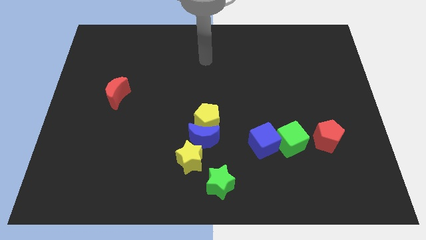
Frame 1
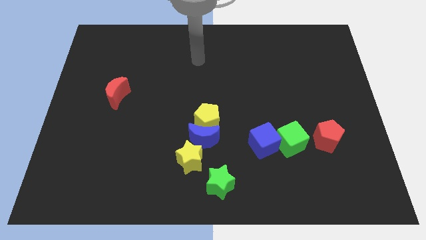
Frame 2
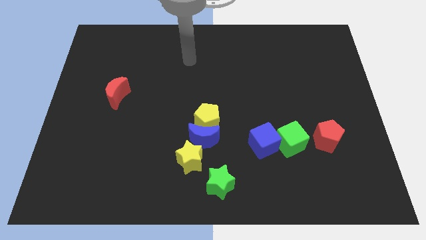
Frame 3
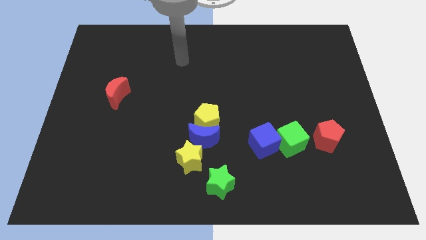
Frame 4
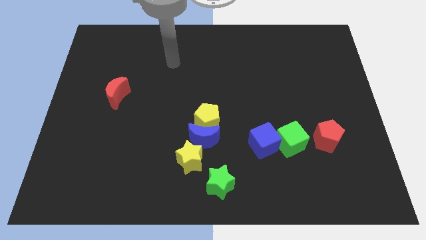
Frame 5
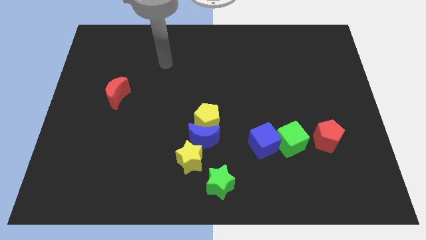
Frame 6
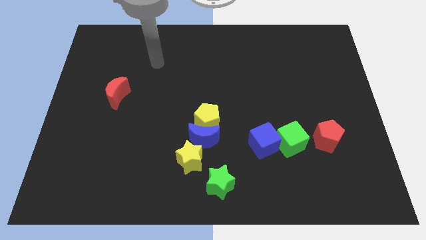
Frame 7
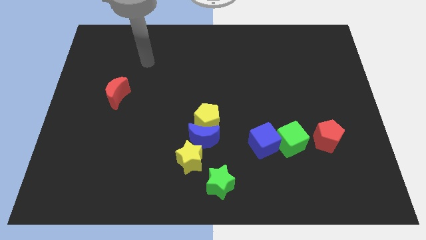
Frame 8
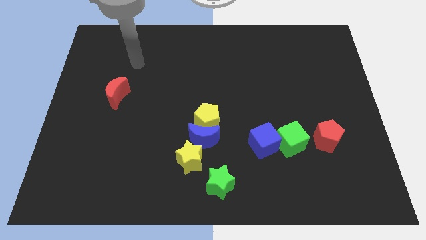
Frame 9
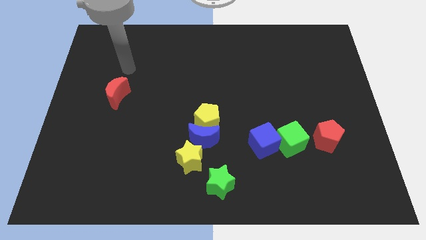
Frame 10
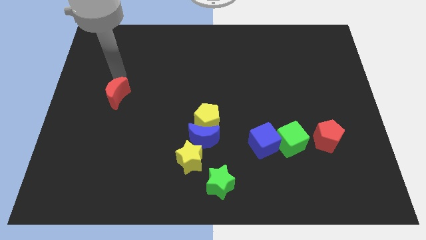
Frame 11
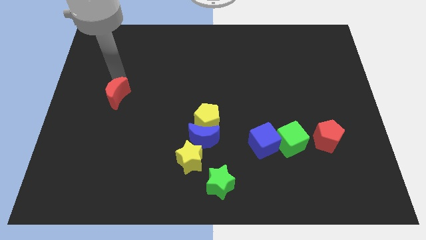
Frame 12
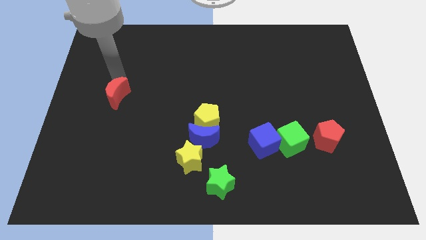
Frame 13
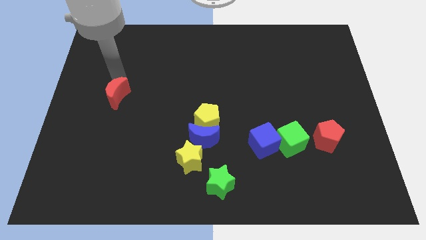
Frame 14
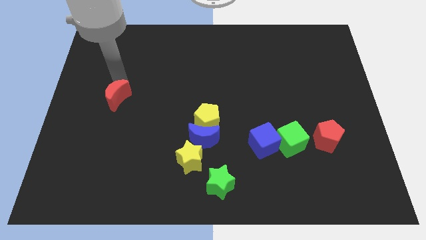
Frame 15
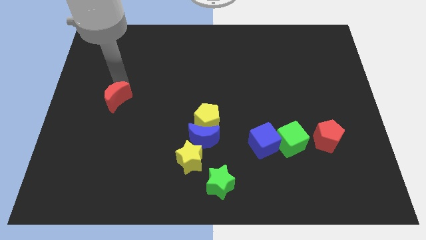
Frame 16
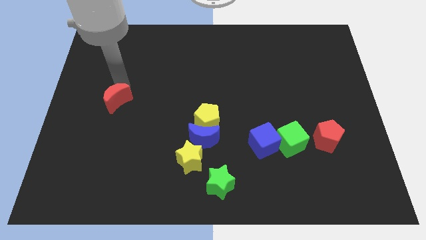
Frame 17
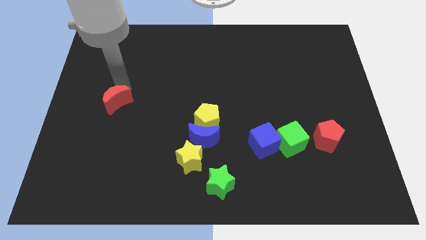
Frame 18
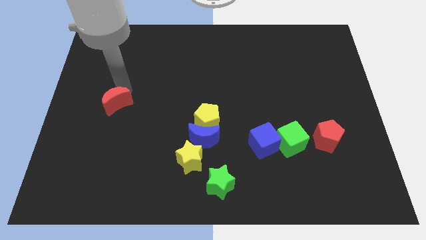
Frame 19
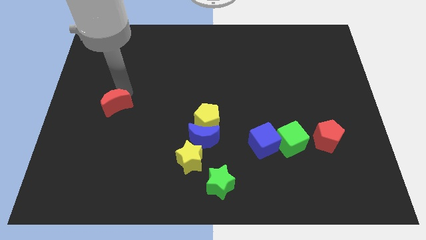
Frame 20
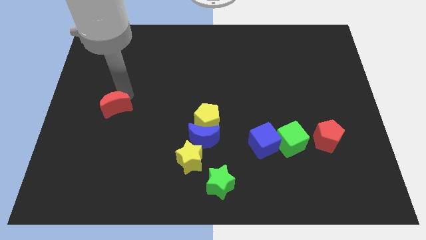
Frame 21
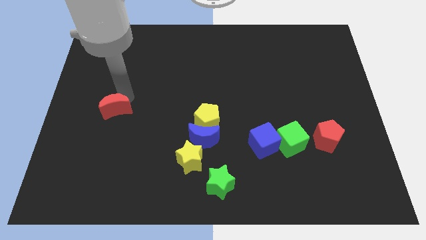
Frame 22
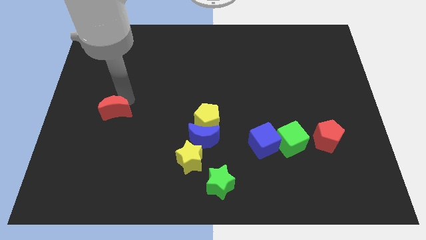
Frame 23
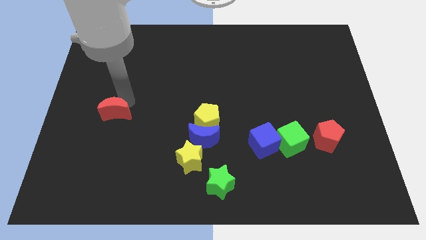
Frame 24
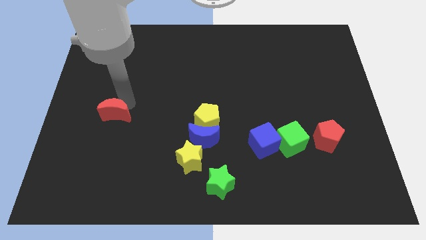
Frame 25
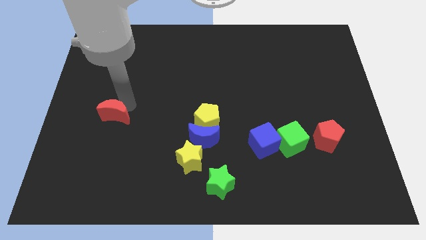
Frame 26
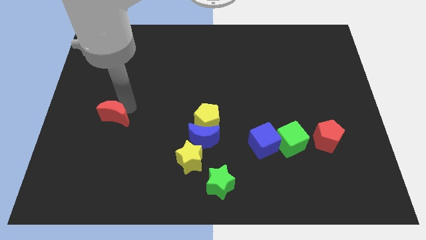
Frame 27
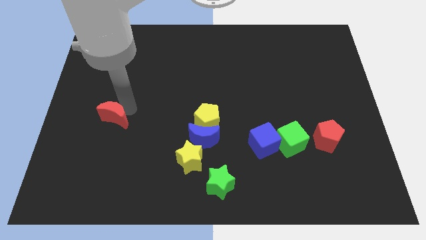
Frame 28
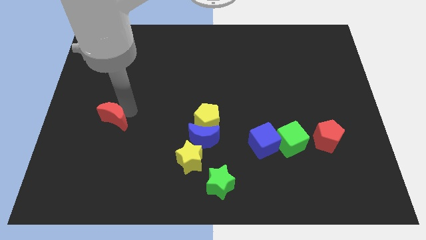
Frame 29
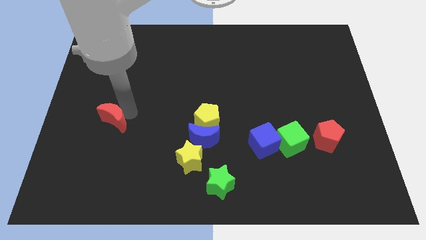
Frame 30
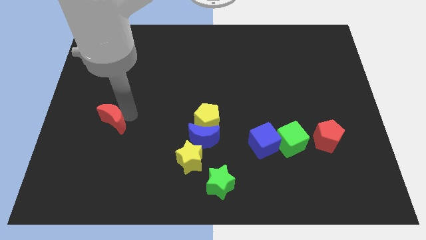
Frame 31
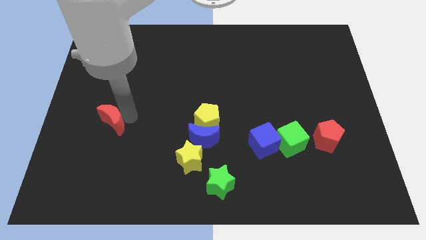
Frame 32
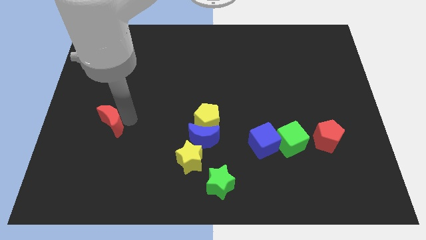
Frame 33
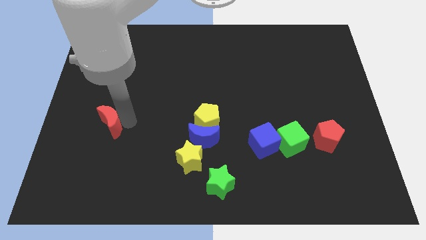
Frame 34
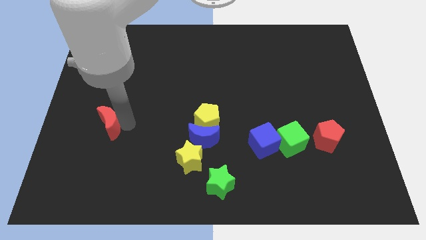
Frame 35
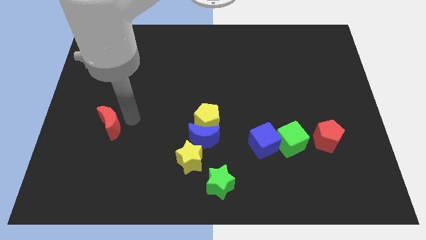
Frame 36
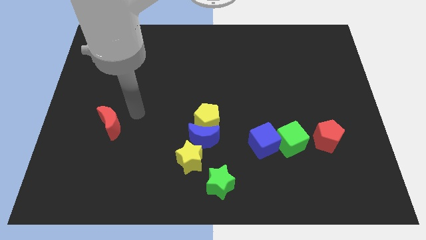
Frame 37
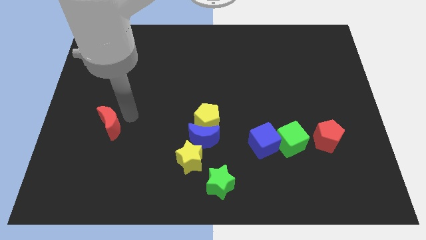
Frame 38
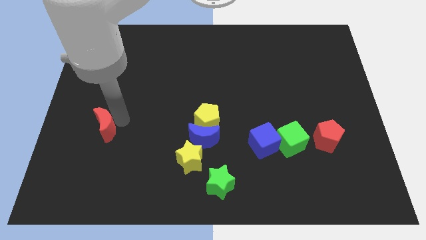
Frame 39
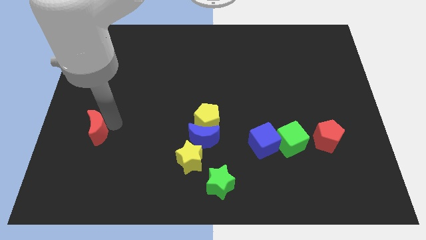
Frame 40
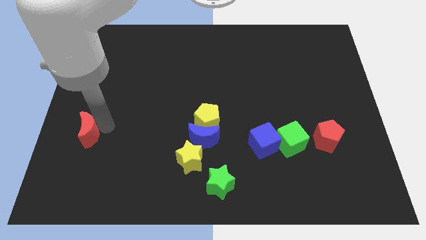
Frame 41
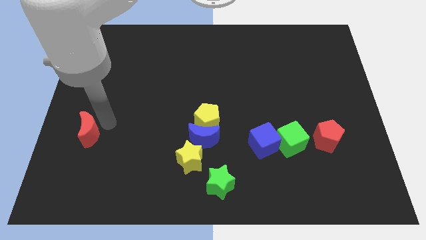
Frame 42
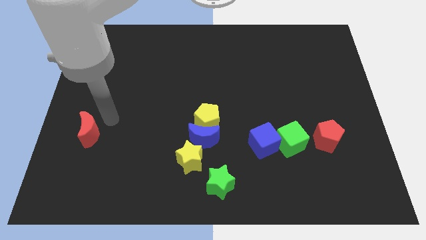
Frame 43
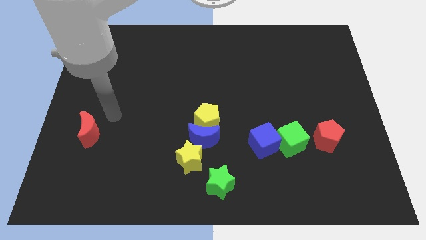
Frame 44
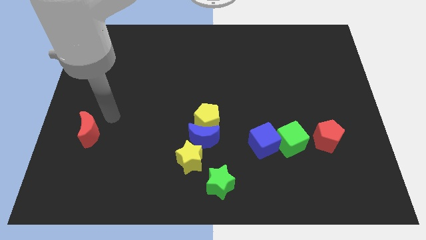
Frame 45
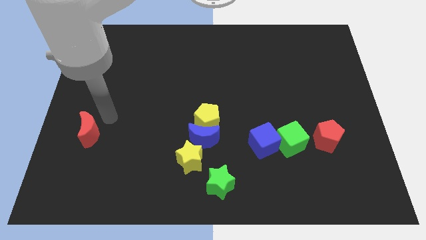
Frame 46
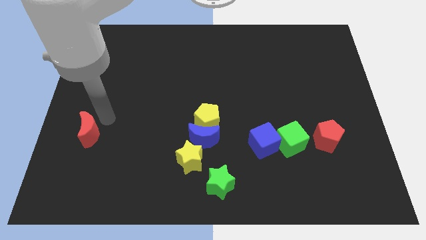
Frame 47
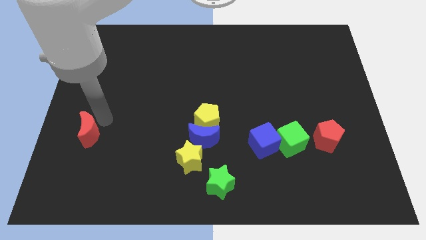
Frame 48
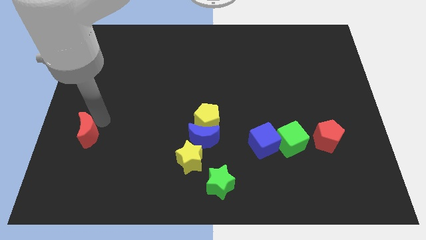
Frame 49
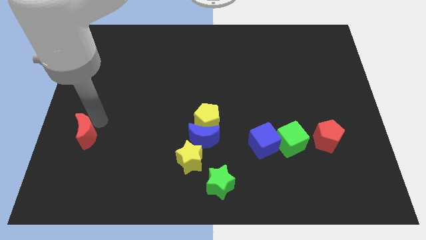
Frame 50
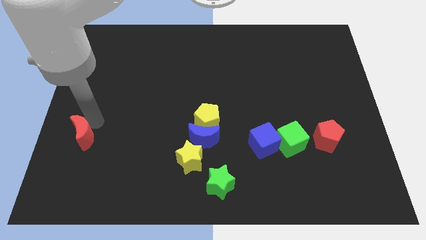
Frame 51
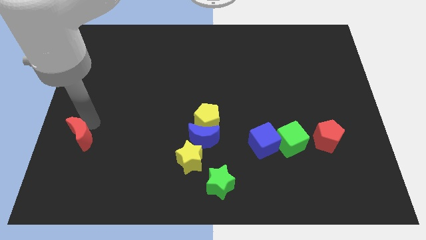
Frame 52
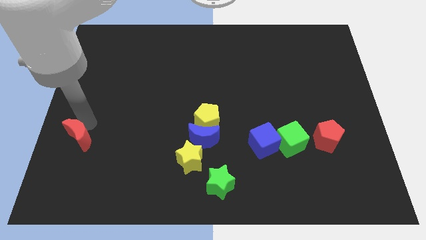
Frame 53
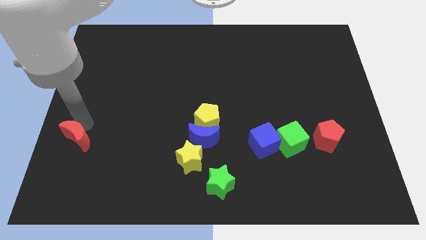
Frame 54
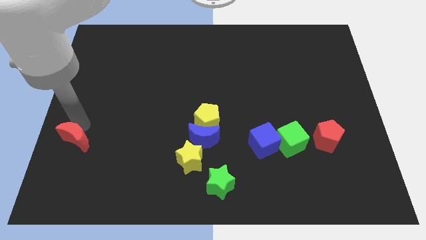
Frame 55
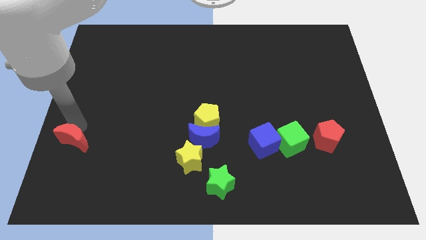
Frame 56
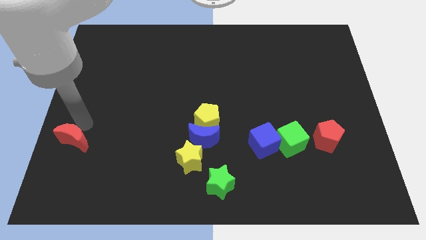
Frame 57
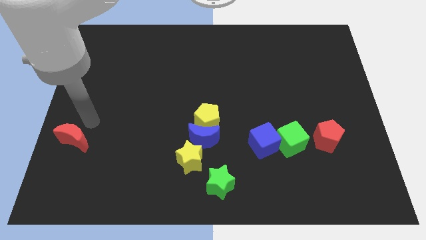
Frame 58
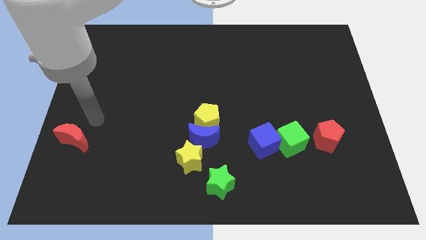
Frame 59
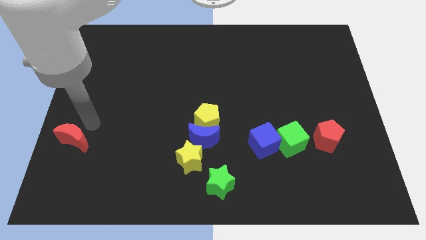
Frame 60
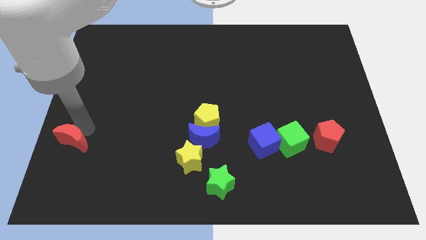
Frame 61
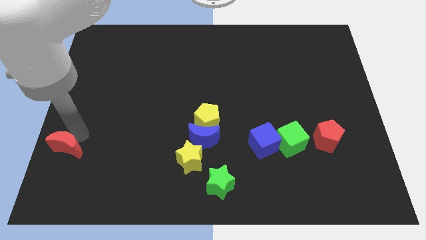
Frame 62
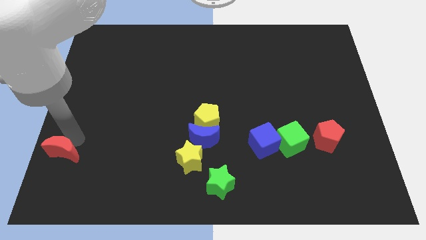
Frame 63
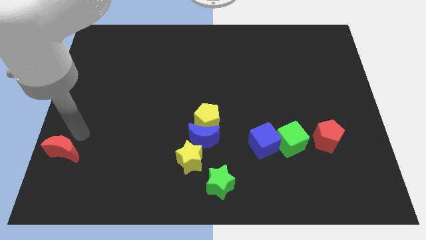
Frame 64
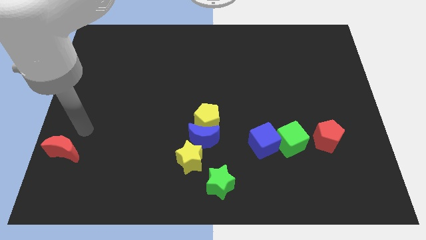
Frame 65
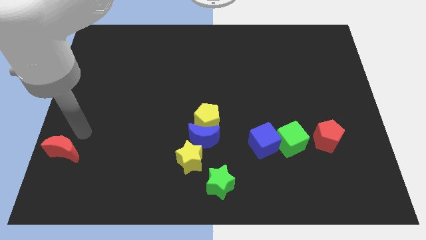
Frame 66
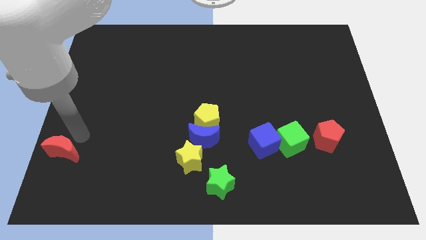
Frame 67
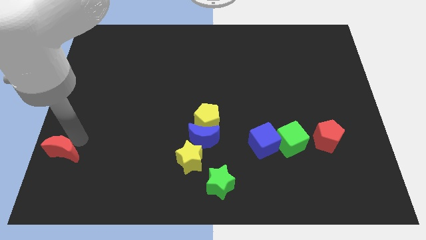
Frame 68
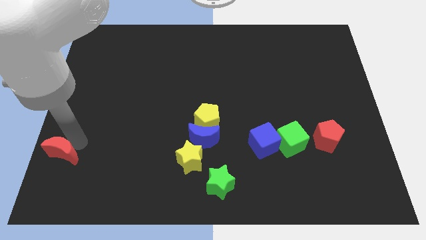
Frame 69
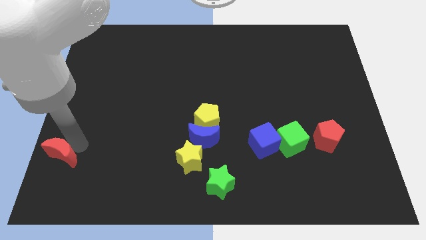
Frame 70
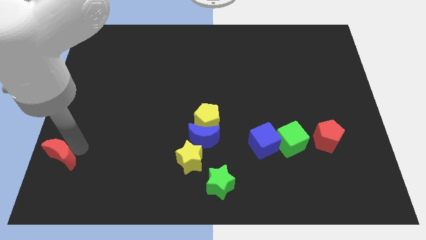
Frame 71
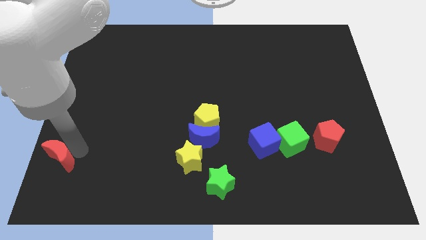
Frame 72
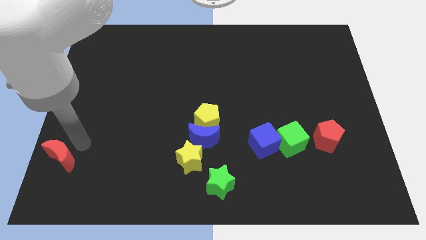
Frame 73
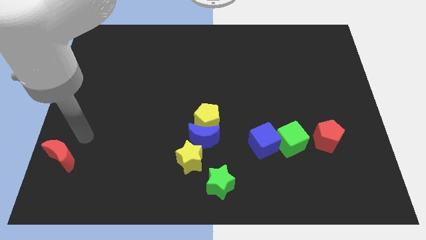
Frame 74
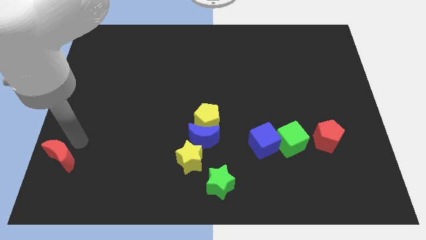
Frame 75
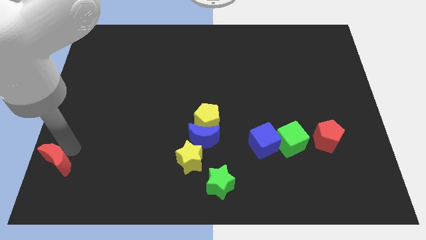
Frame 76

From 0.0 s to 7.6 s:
push the red moon to the lower left corner

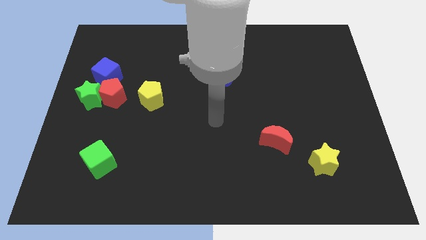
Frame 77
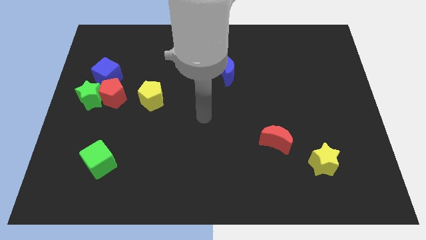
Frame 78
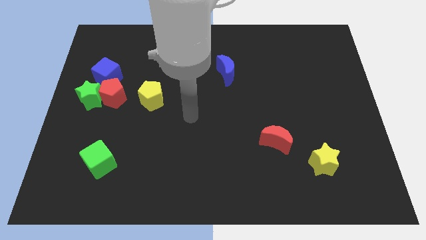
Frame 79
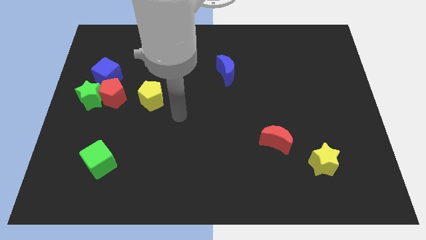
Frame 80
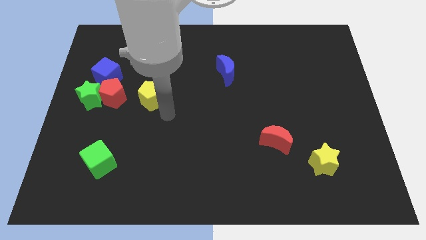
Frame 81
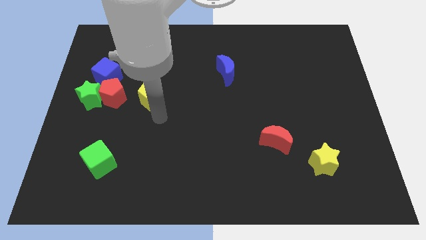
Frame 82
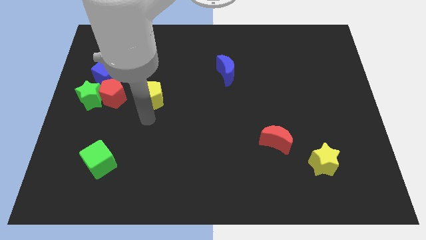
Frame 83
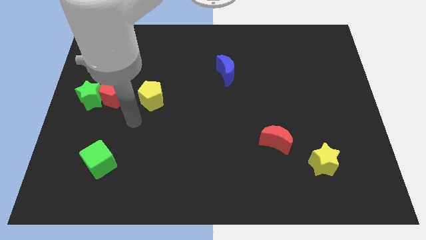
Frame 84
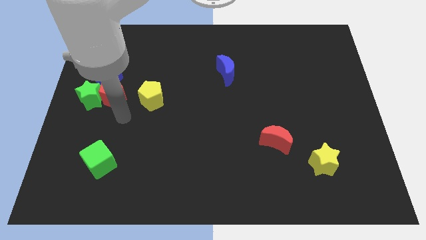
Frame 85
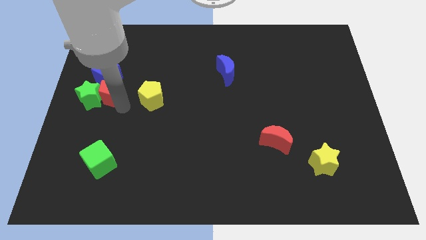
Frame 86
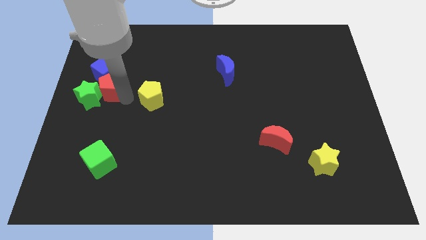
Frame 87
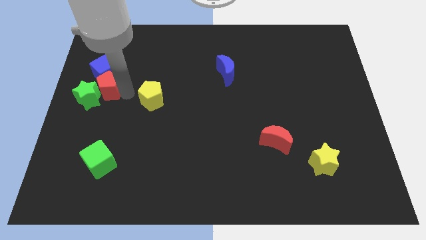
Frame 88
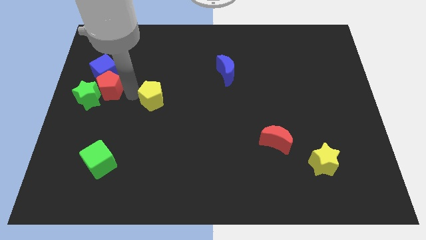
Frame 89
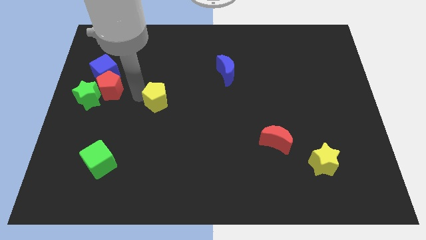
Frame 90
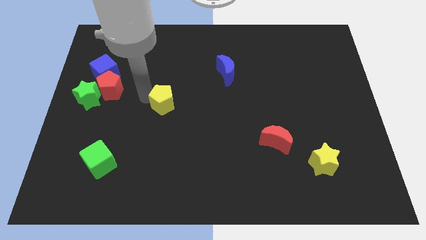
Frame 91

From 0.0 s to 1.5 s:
slide the yellow pentagon to the center of the board
